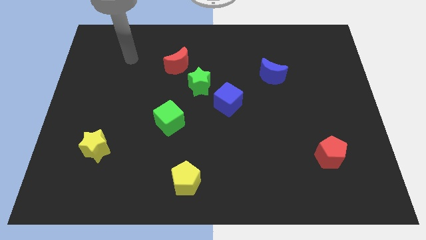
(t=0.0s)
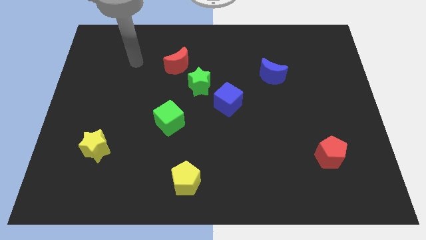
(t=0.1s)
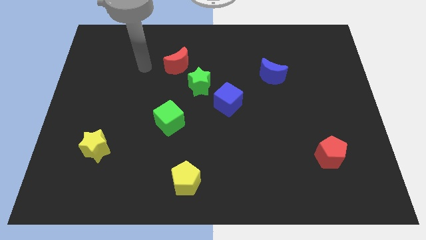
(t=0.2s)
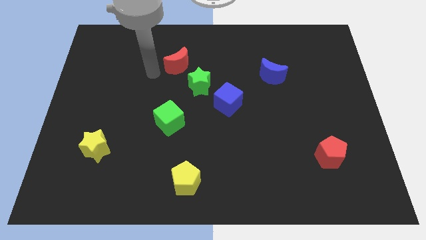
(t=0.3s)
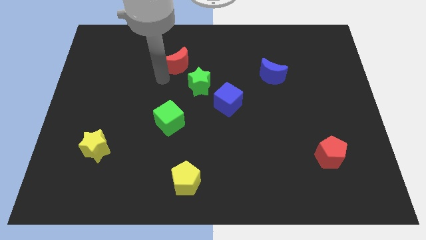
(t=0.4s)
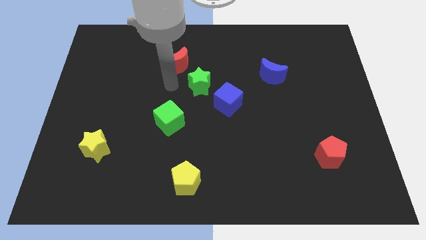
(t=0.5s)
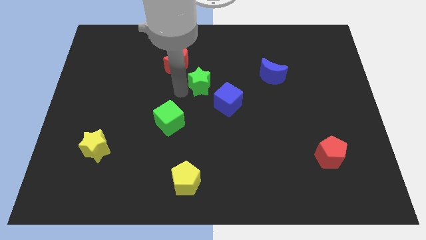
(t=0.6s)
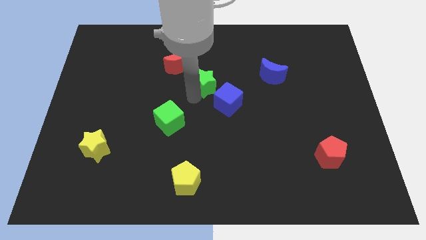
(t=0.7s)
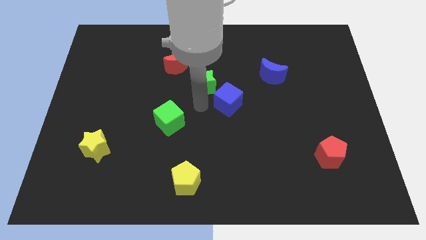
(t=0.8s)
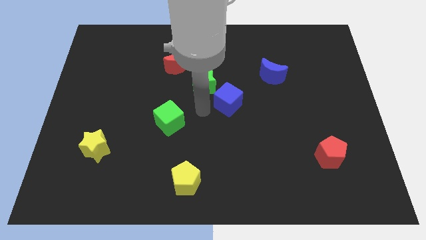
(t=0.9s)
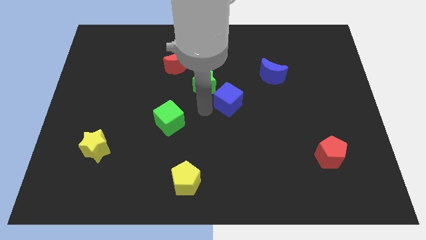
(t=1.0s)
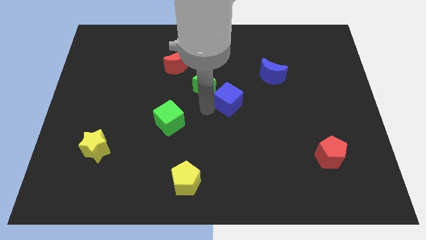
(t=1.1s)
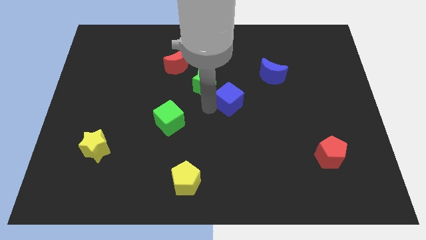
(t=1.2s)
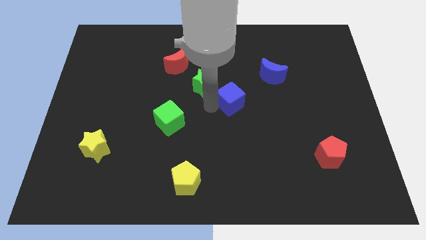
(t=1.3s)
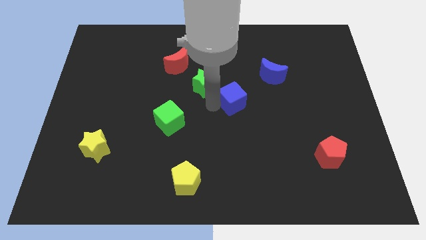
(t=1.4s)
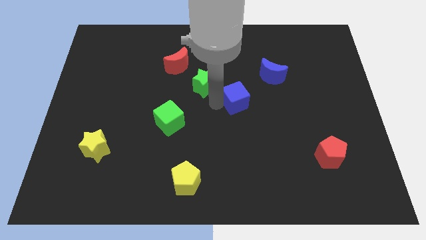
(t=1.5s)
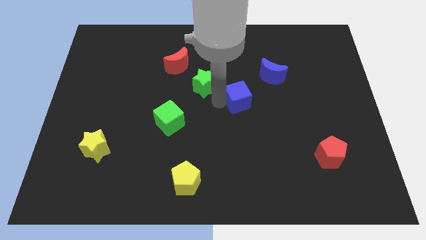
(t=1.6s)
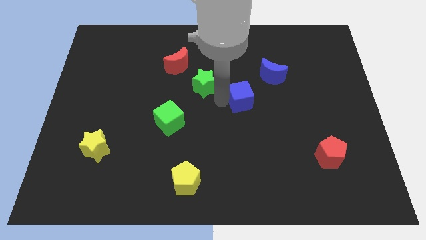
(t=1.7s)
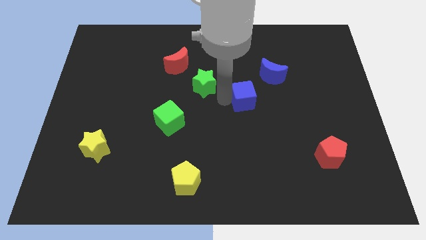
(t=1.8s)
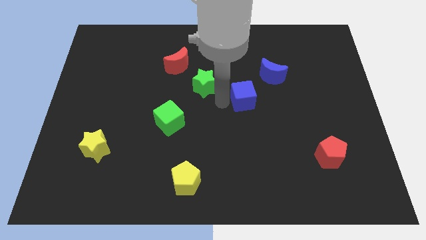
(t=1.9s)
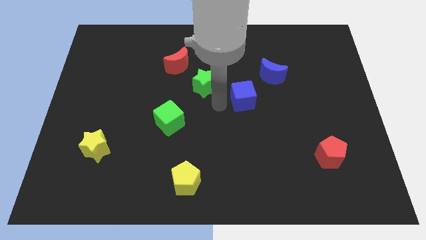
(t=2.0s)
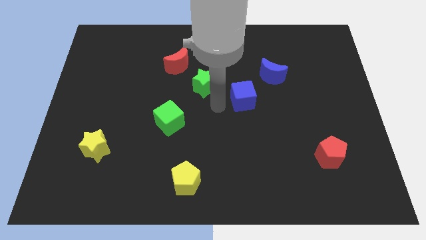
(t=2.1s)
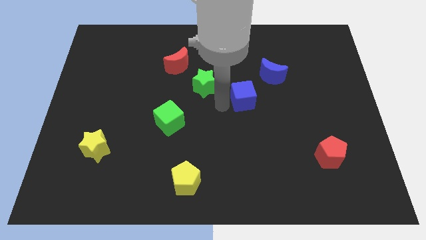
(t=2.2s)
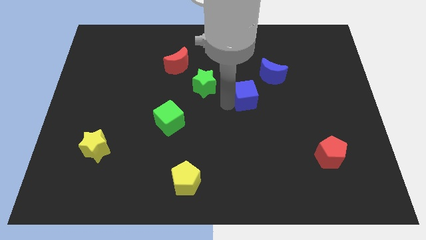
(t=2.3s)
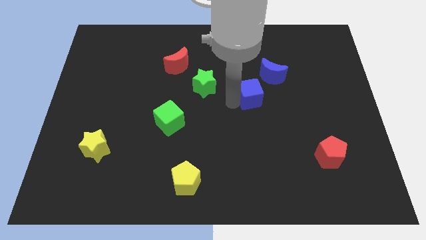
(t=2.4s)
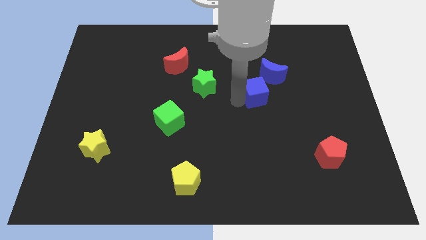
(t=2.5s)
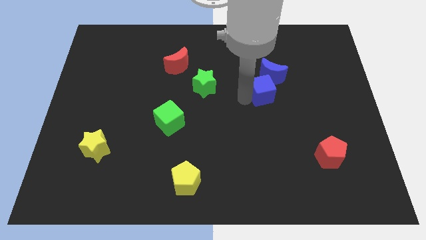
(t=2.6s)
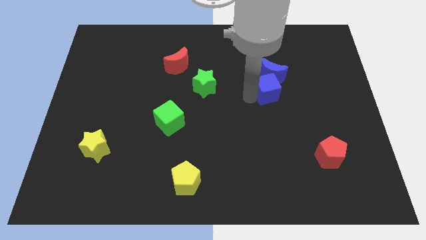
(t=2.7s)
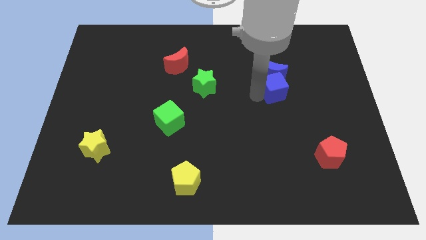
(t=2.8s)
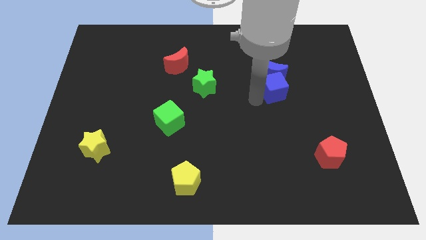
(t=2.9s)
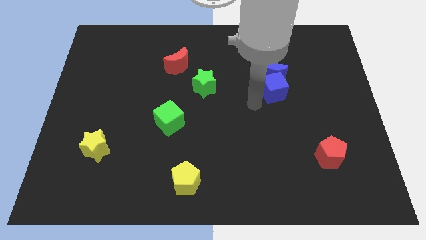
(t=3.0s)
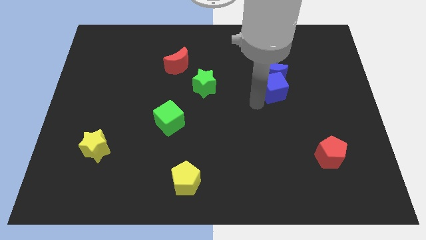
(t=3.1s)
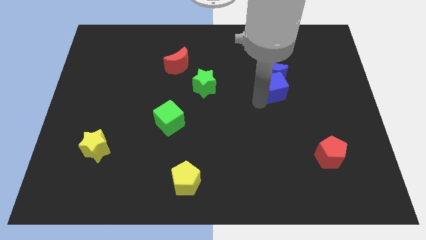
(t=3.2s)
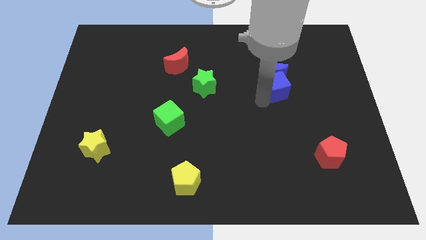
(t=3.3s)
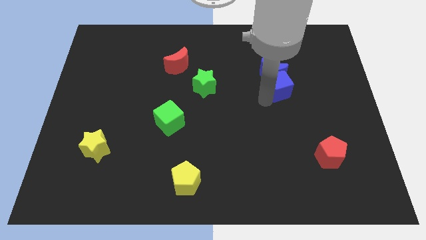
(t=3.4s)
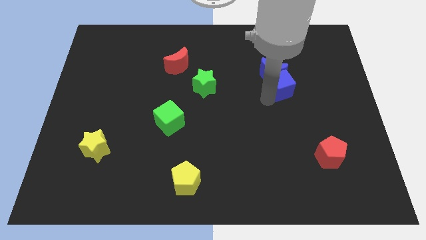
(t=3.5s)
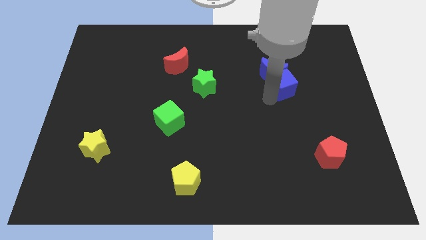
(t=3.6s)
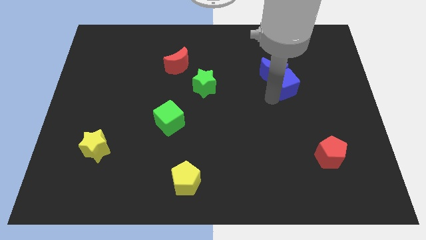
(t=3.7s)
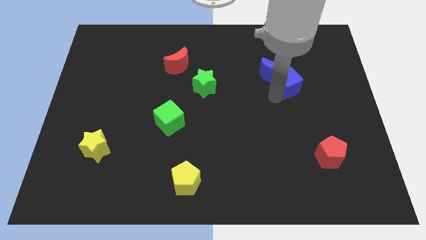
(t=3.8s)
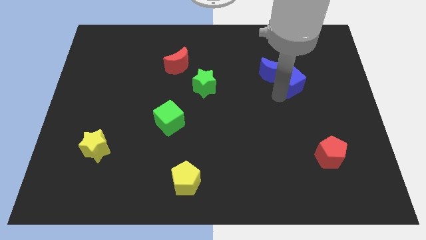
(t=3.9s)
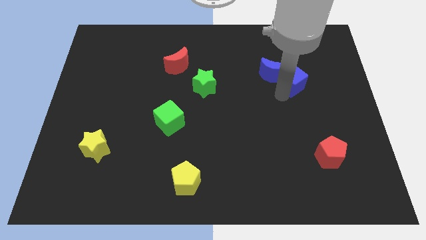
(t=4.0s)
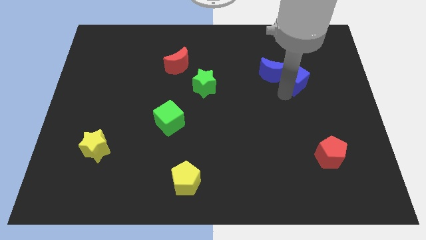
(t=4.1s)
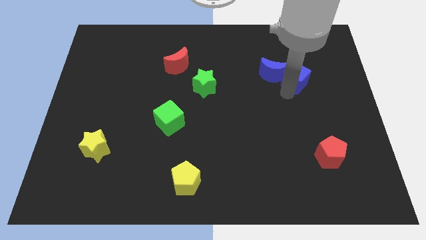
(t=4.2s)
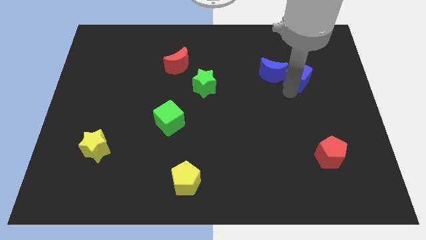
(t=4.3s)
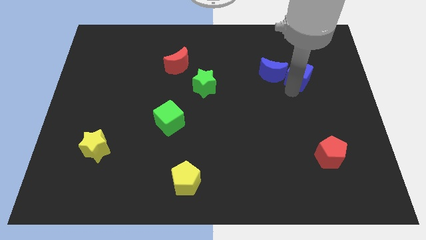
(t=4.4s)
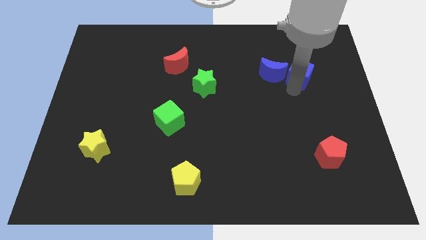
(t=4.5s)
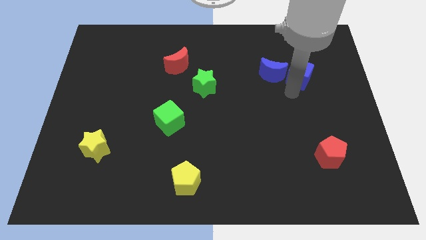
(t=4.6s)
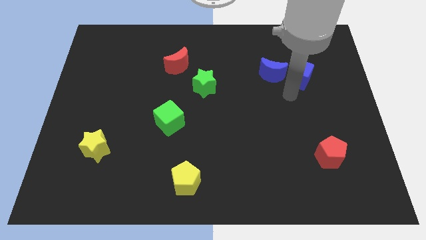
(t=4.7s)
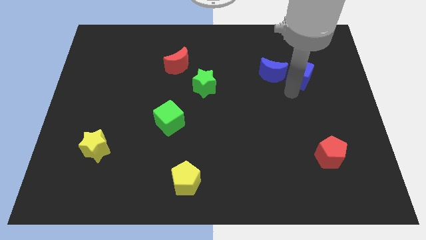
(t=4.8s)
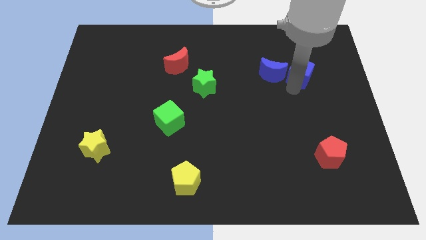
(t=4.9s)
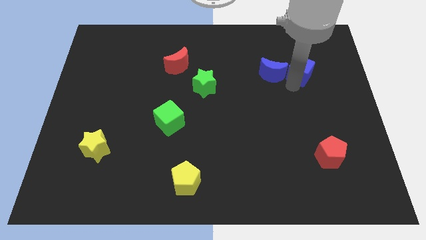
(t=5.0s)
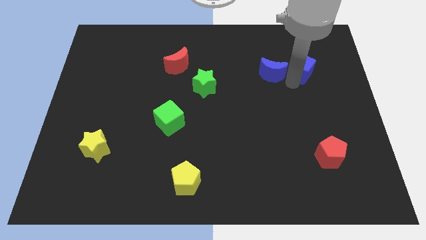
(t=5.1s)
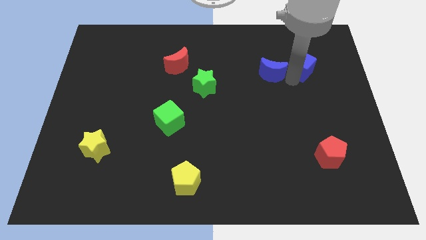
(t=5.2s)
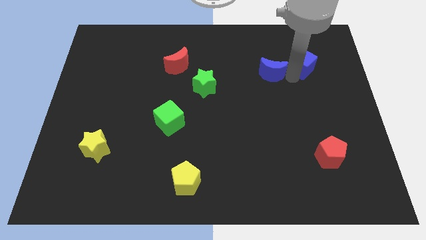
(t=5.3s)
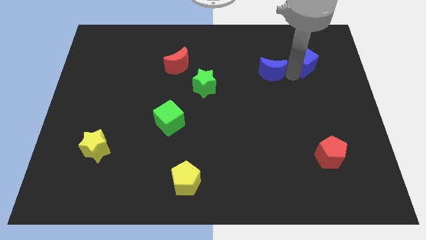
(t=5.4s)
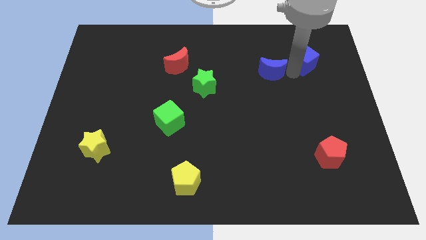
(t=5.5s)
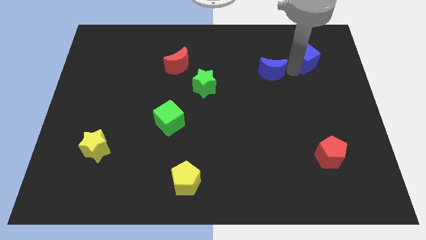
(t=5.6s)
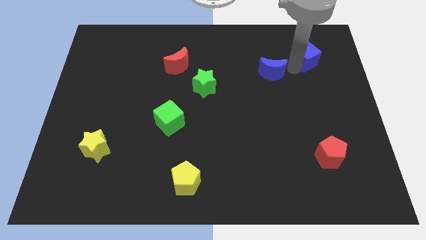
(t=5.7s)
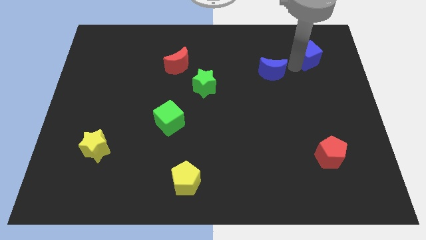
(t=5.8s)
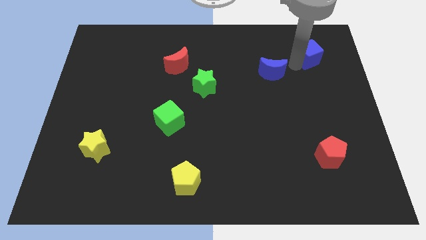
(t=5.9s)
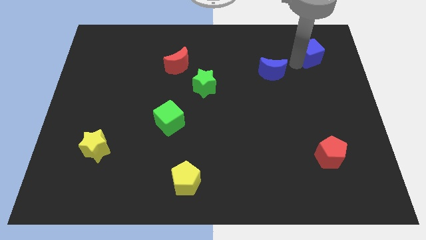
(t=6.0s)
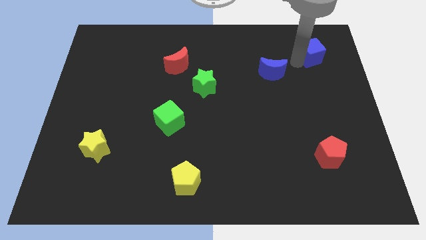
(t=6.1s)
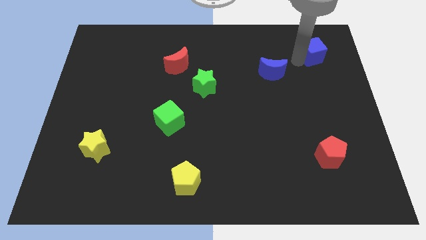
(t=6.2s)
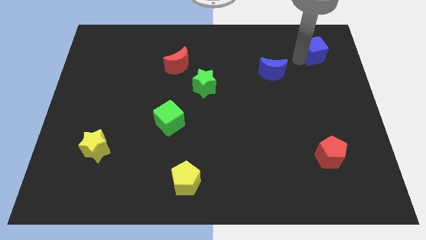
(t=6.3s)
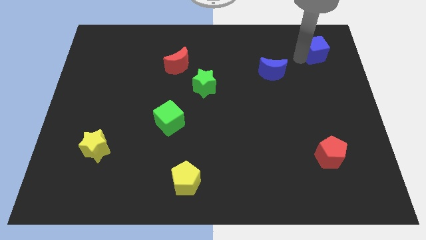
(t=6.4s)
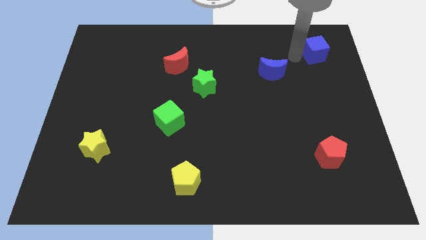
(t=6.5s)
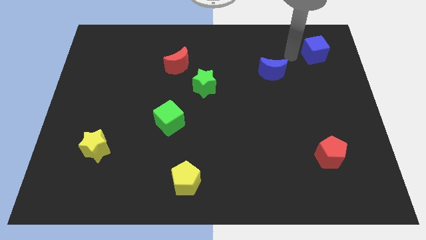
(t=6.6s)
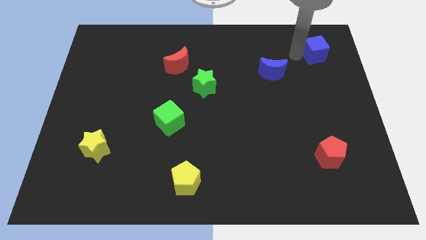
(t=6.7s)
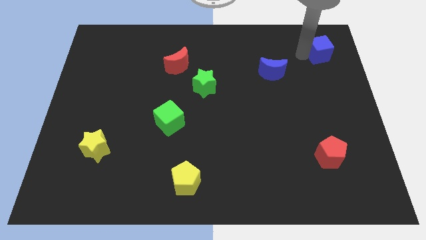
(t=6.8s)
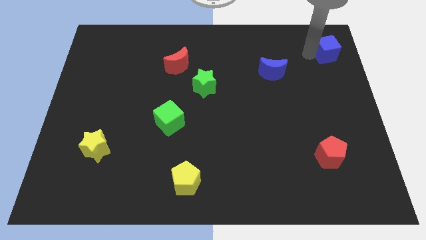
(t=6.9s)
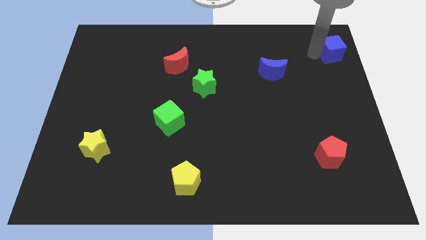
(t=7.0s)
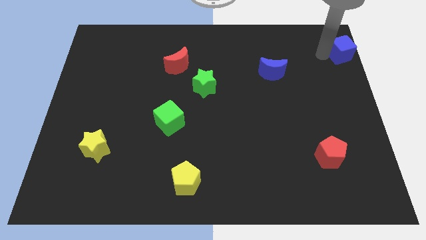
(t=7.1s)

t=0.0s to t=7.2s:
put the blue cube to the top right
